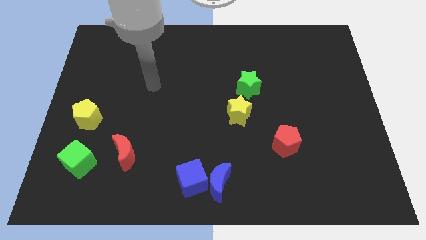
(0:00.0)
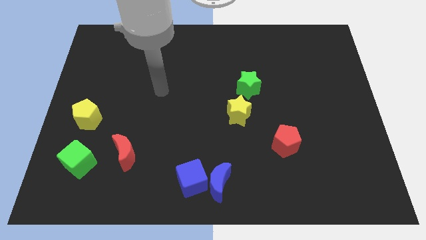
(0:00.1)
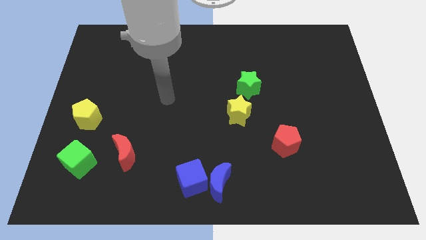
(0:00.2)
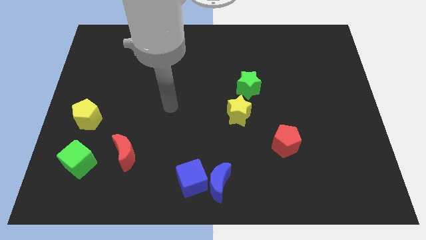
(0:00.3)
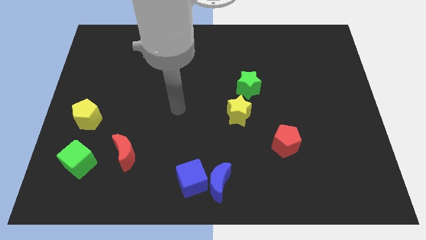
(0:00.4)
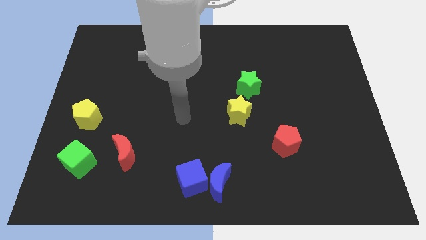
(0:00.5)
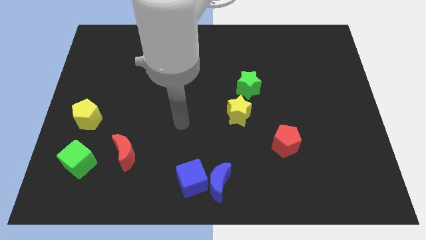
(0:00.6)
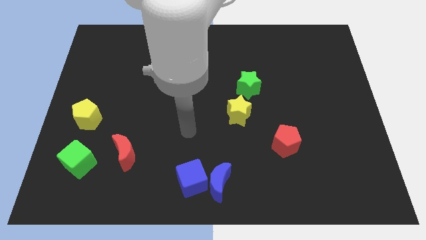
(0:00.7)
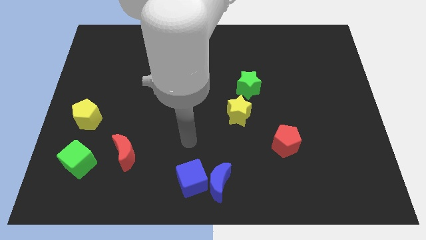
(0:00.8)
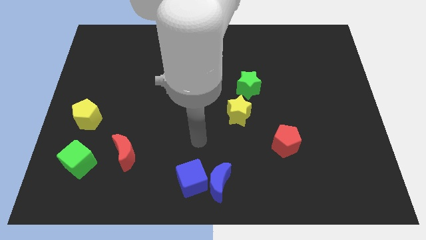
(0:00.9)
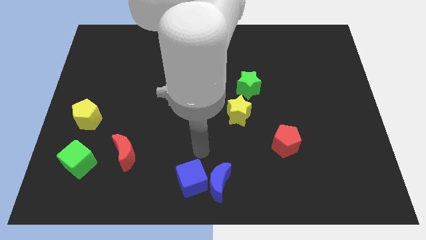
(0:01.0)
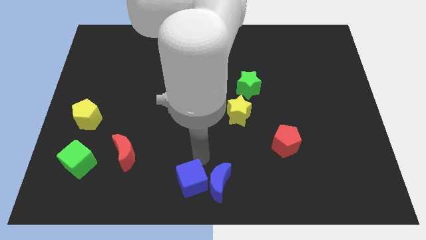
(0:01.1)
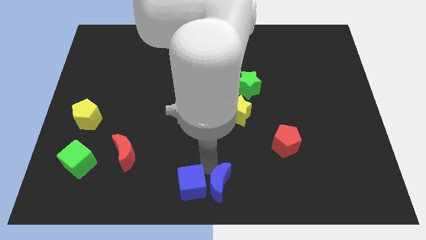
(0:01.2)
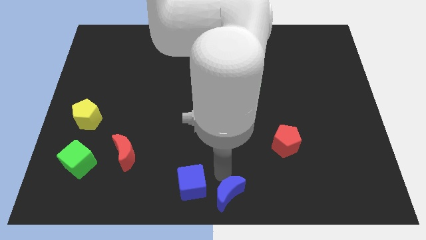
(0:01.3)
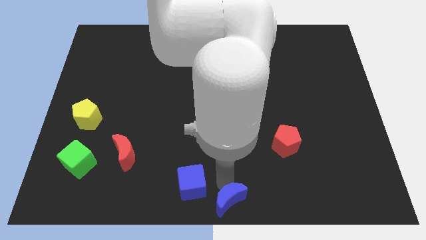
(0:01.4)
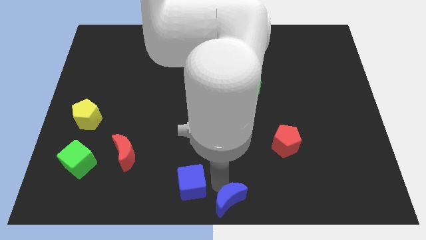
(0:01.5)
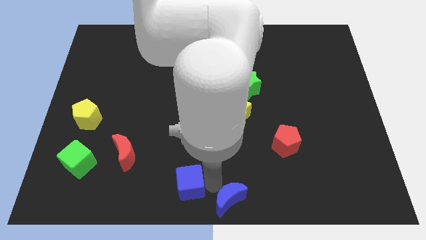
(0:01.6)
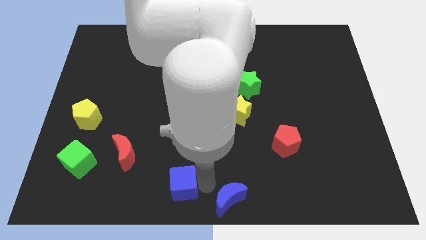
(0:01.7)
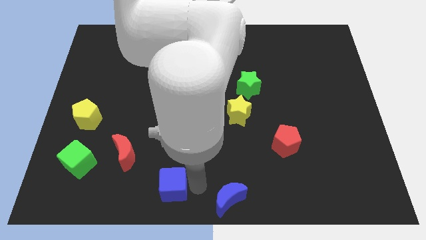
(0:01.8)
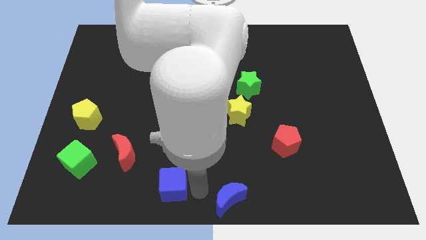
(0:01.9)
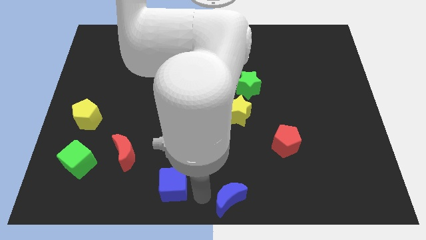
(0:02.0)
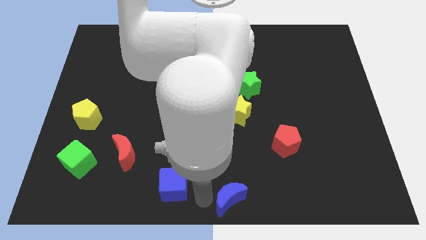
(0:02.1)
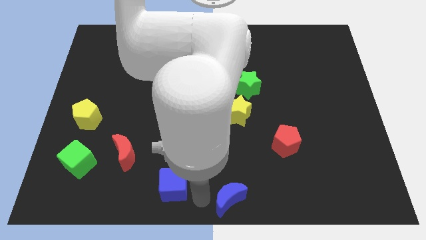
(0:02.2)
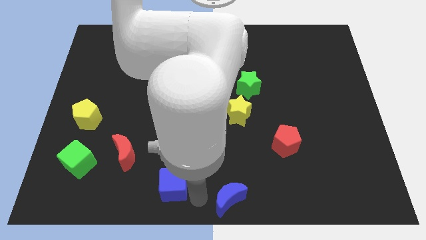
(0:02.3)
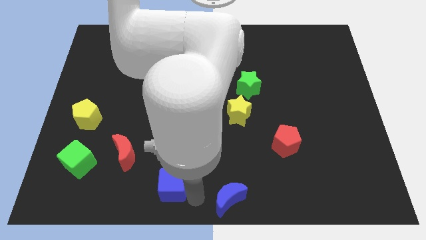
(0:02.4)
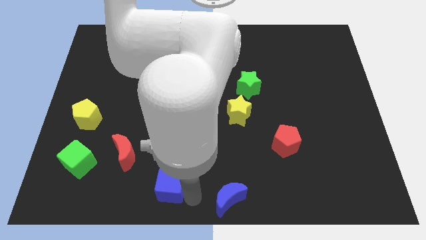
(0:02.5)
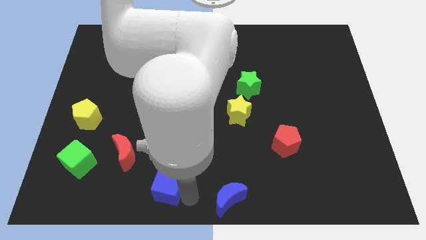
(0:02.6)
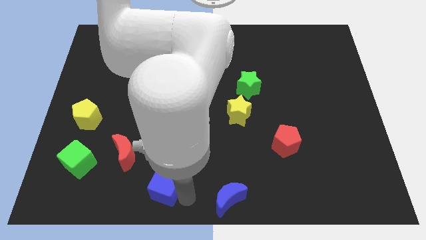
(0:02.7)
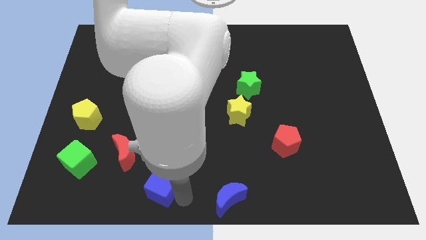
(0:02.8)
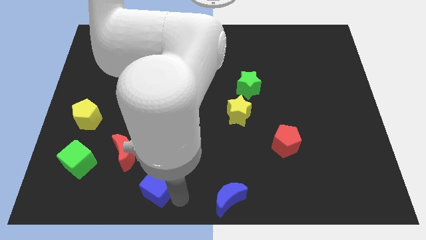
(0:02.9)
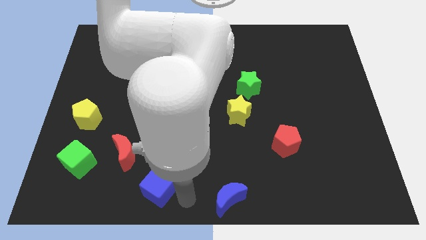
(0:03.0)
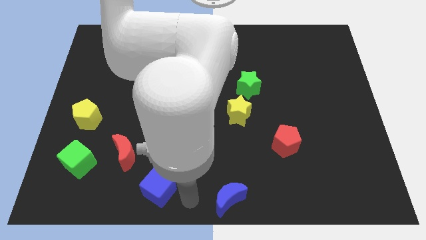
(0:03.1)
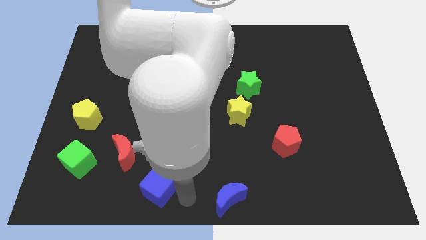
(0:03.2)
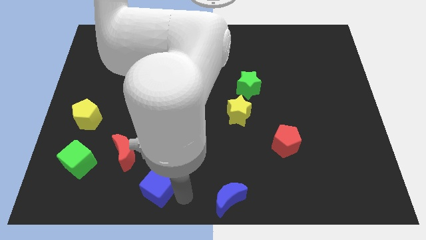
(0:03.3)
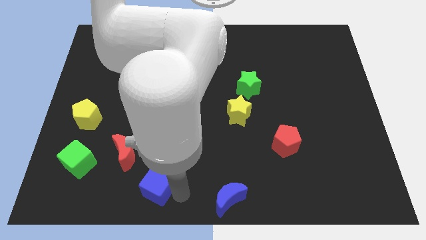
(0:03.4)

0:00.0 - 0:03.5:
slightly push the blue cube left

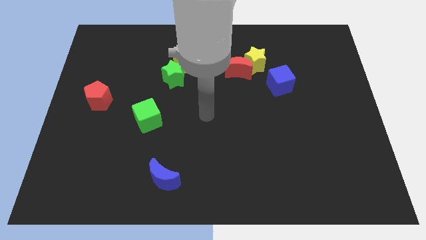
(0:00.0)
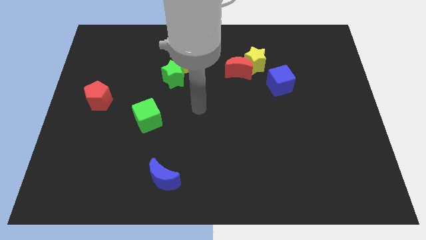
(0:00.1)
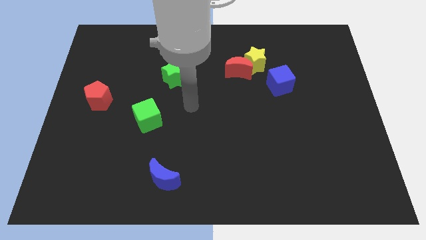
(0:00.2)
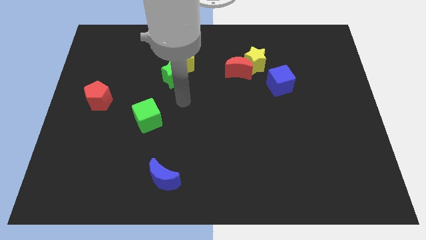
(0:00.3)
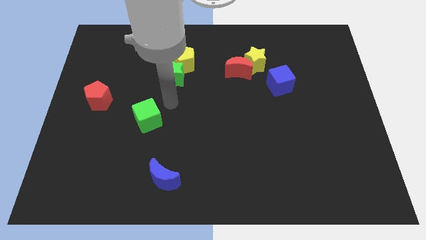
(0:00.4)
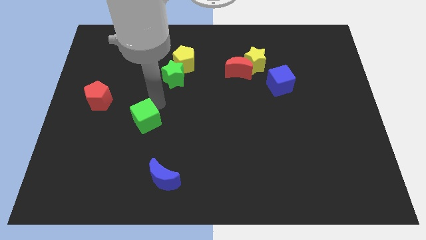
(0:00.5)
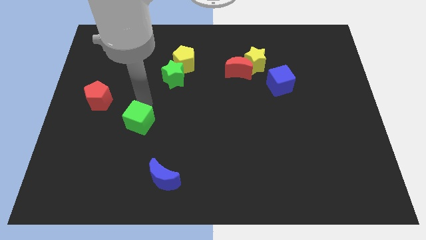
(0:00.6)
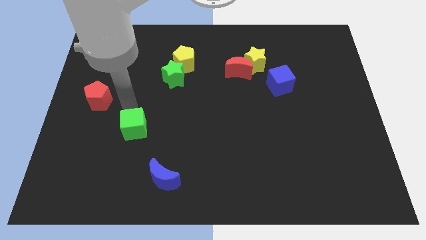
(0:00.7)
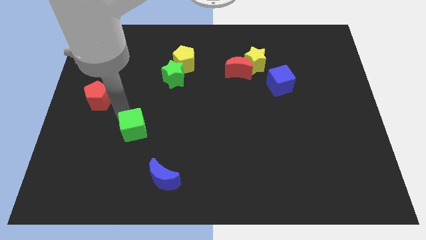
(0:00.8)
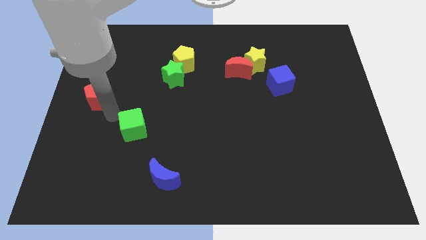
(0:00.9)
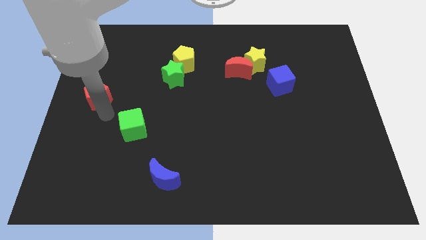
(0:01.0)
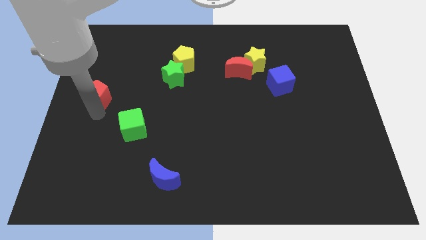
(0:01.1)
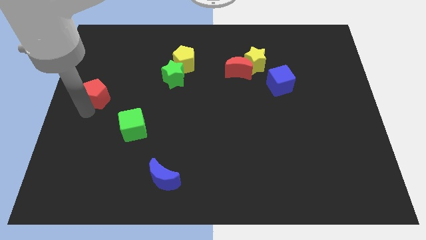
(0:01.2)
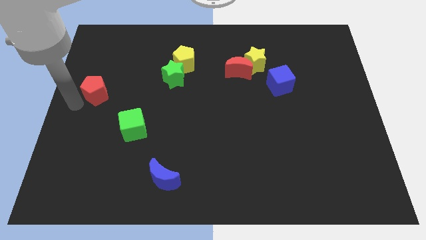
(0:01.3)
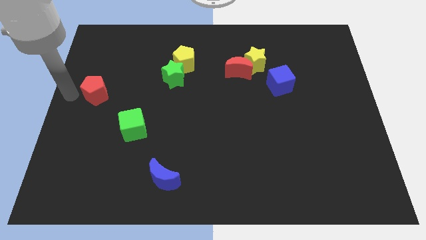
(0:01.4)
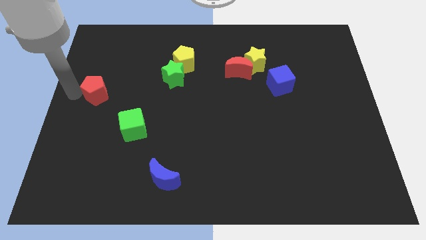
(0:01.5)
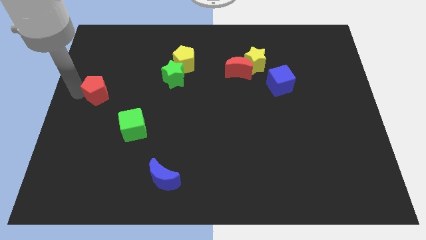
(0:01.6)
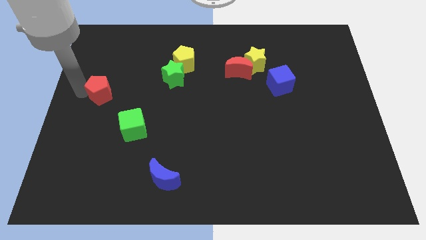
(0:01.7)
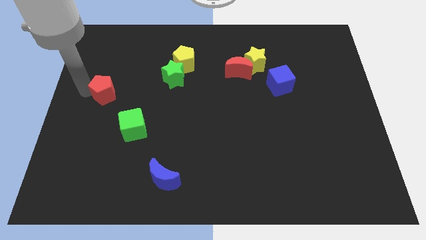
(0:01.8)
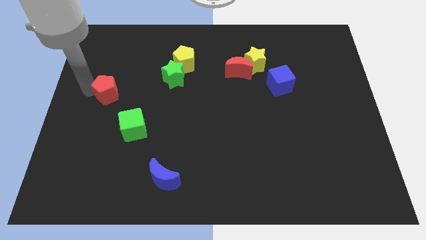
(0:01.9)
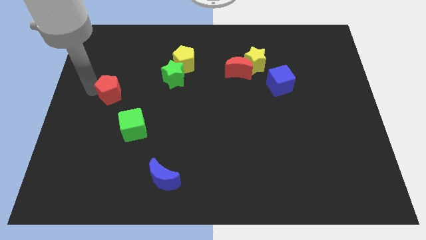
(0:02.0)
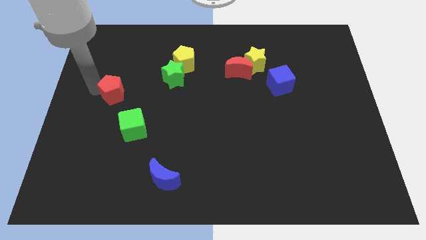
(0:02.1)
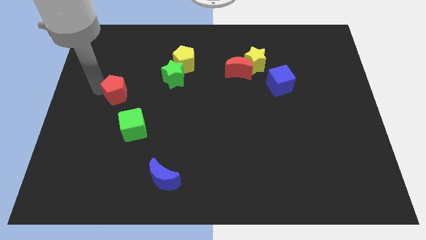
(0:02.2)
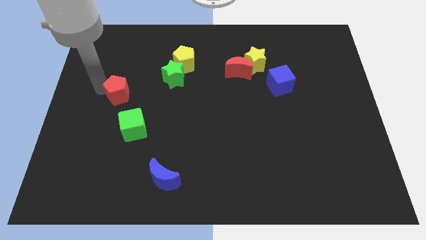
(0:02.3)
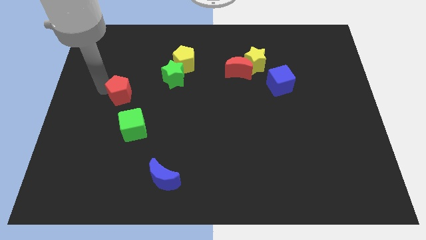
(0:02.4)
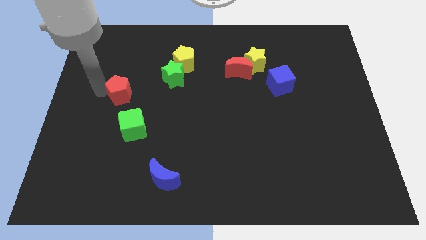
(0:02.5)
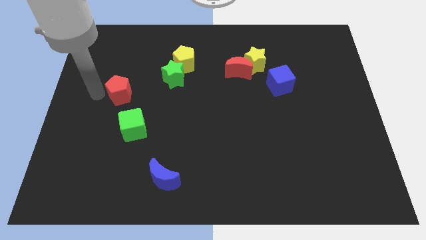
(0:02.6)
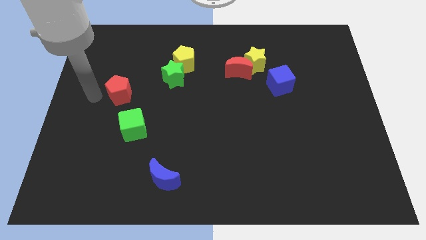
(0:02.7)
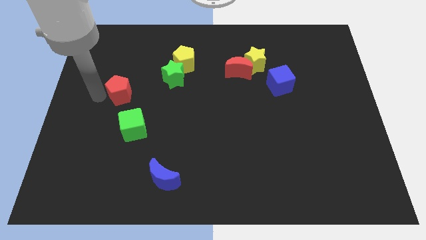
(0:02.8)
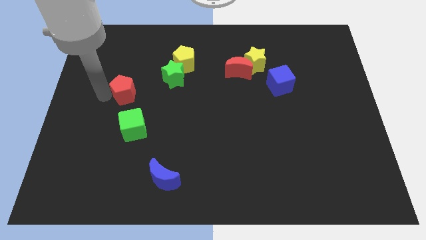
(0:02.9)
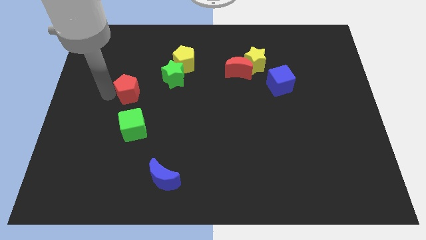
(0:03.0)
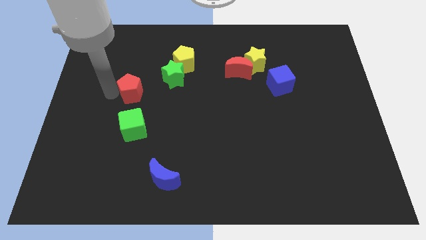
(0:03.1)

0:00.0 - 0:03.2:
move the red pentagon a little bit to the right

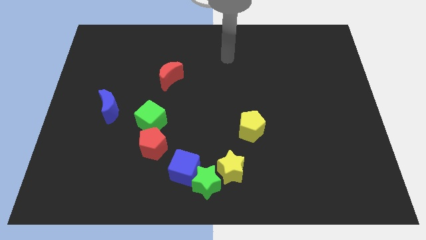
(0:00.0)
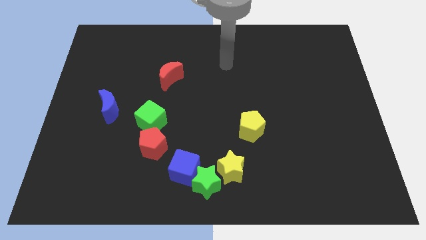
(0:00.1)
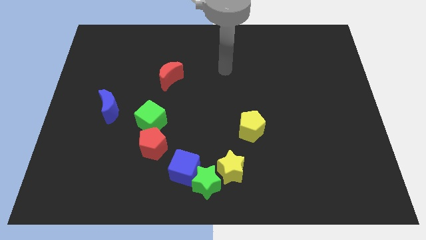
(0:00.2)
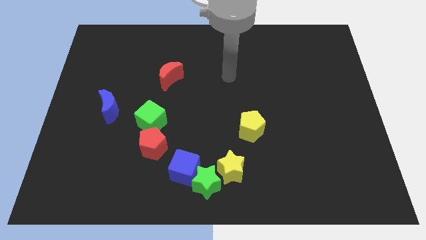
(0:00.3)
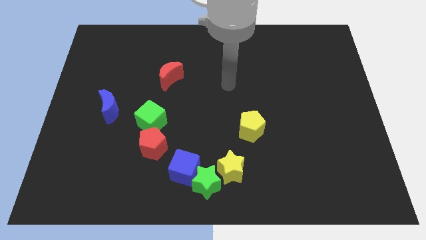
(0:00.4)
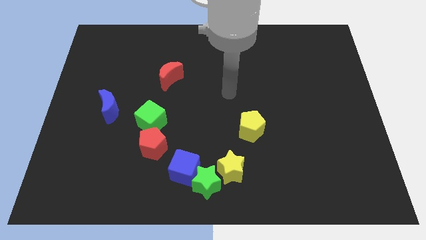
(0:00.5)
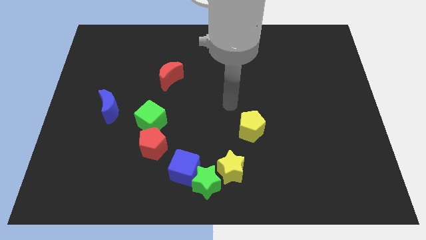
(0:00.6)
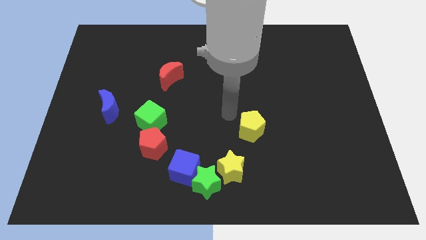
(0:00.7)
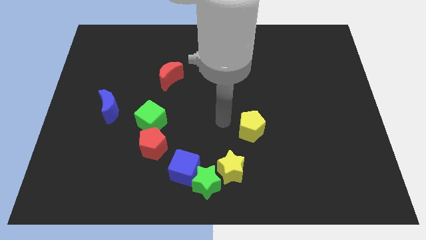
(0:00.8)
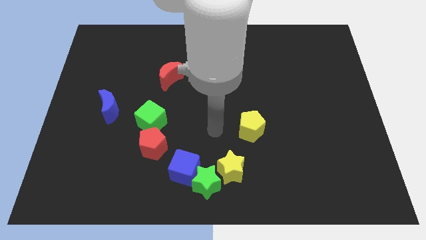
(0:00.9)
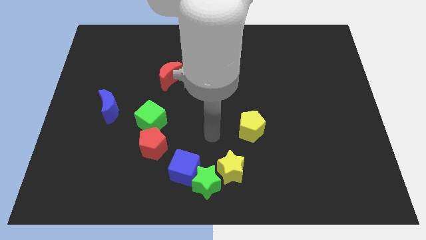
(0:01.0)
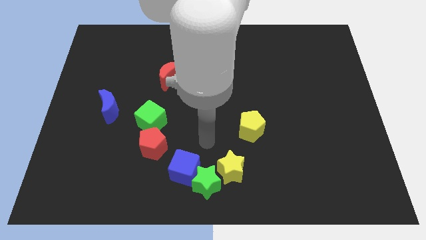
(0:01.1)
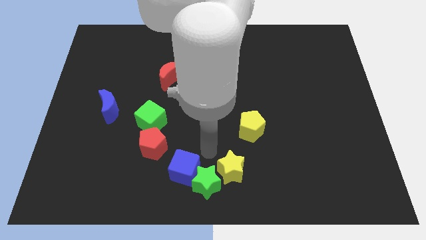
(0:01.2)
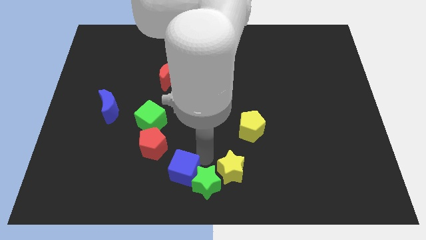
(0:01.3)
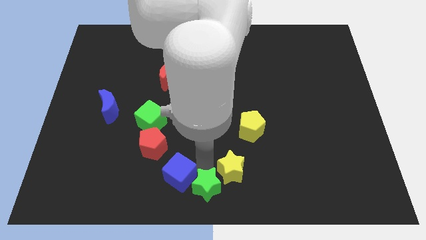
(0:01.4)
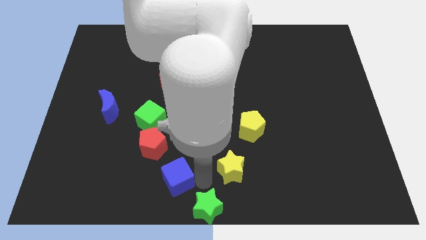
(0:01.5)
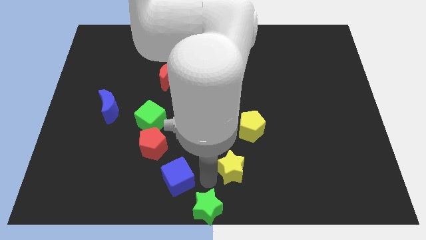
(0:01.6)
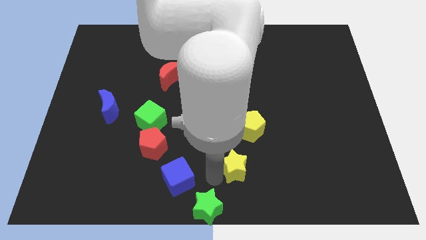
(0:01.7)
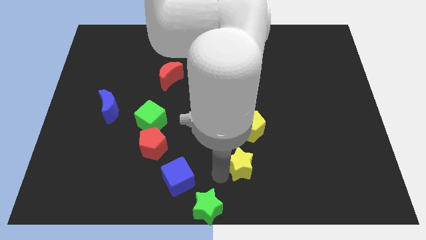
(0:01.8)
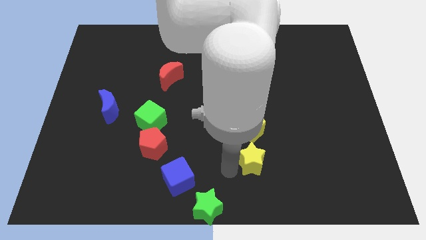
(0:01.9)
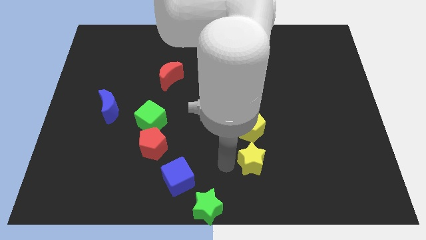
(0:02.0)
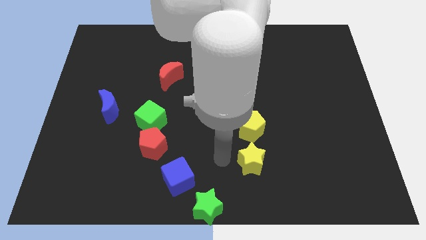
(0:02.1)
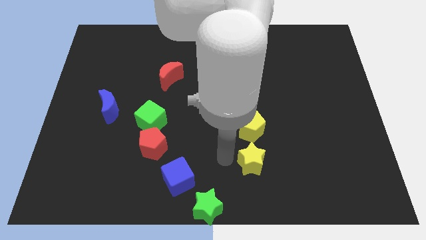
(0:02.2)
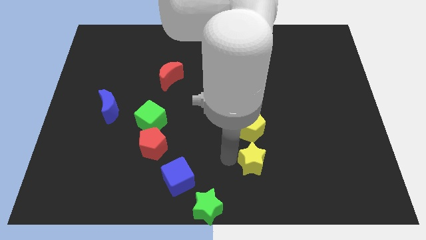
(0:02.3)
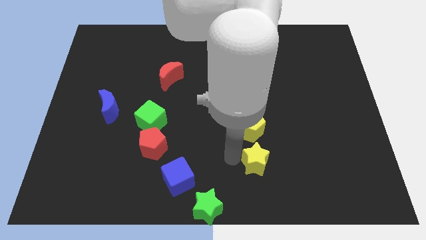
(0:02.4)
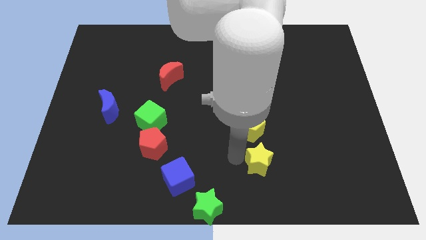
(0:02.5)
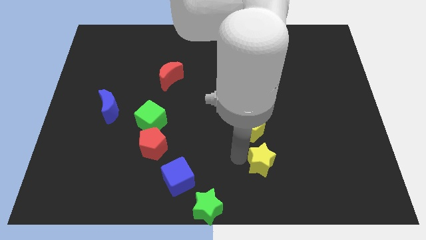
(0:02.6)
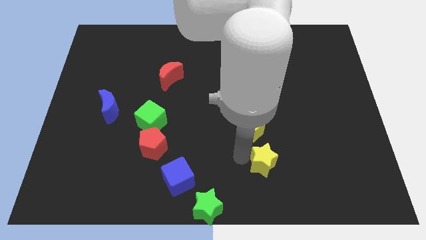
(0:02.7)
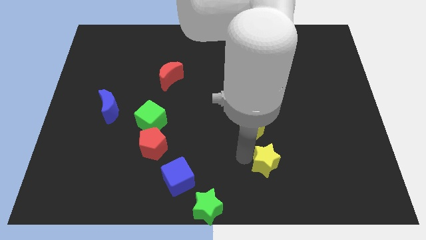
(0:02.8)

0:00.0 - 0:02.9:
push the yellow star slightly right
